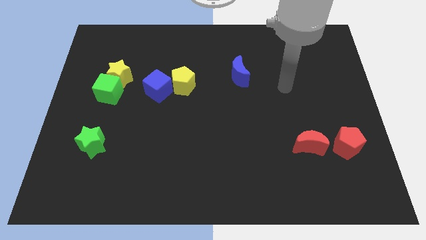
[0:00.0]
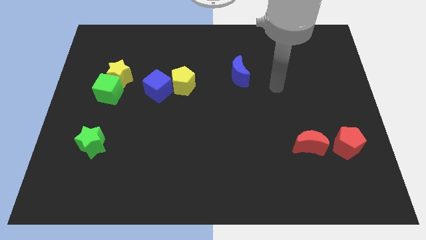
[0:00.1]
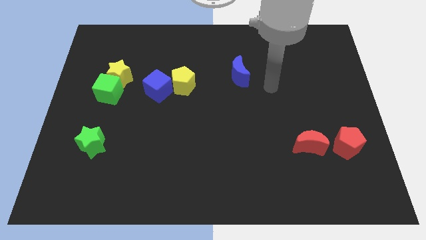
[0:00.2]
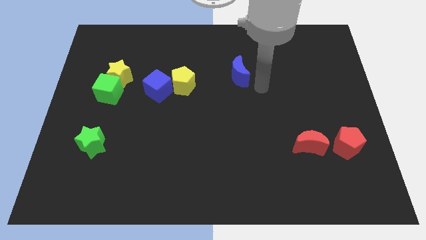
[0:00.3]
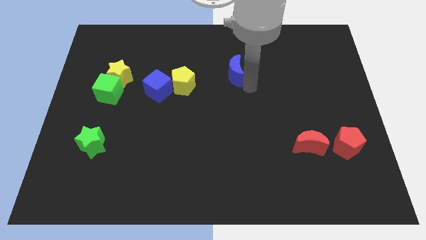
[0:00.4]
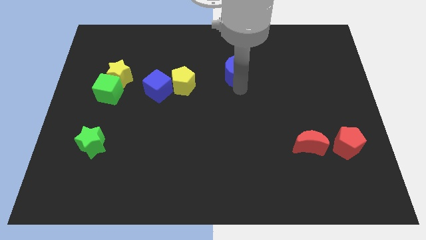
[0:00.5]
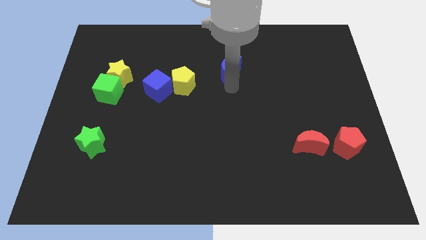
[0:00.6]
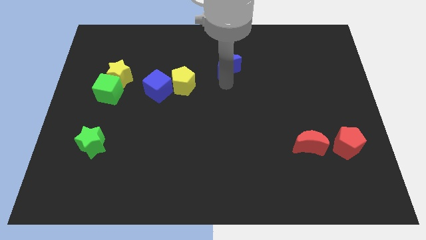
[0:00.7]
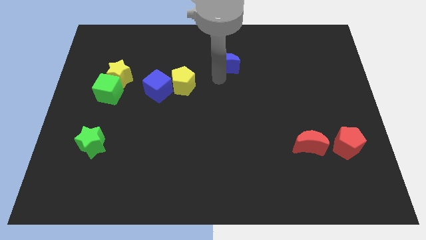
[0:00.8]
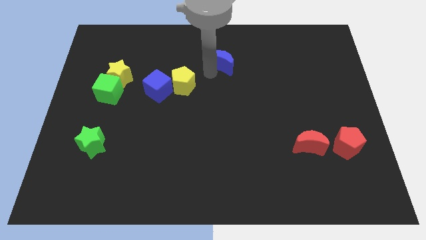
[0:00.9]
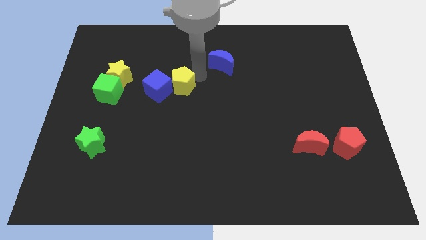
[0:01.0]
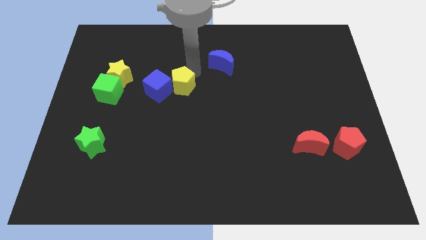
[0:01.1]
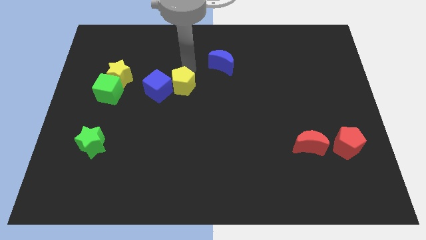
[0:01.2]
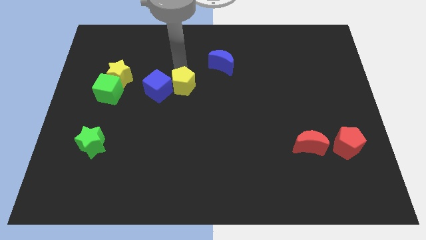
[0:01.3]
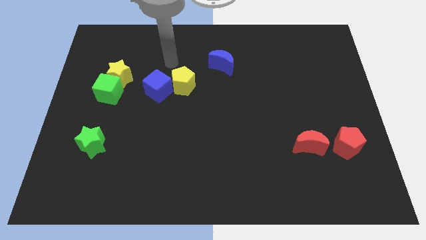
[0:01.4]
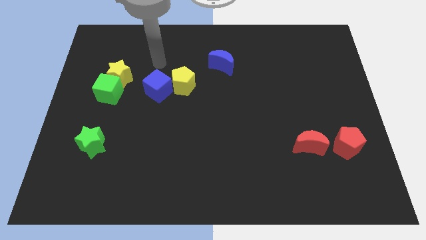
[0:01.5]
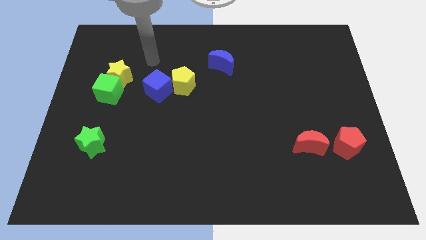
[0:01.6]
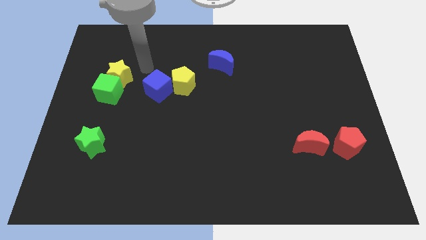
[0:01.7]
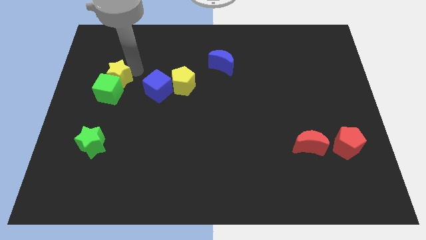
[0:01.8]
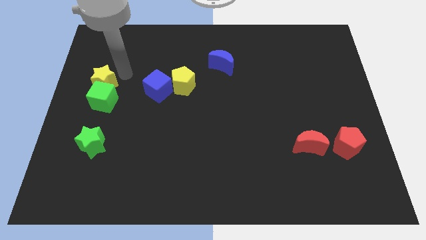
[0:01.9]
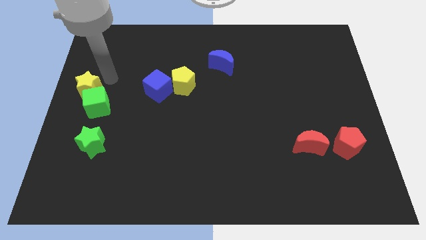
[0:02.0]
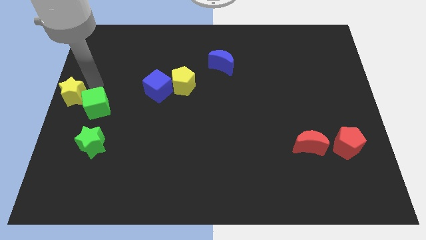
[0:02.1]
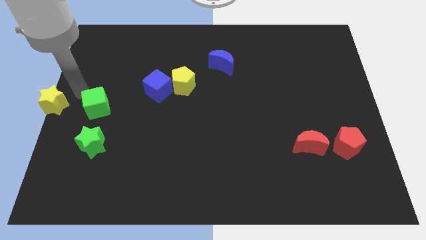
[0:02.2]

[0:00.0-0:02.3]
move the green cube away from the yellow star

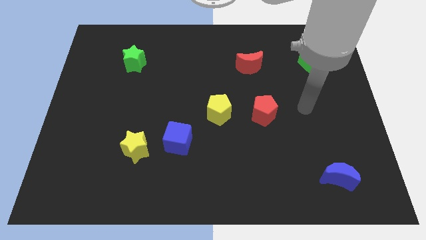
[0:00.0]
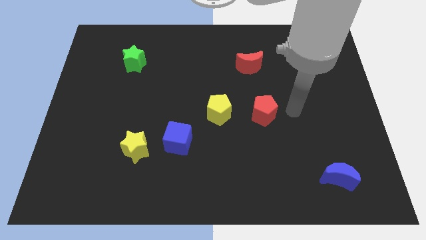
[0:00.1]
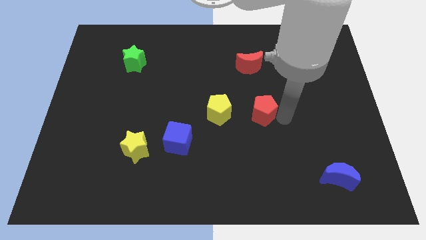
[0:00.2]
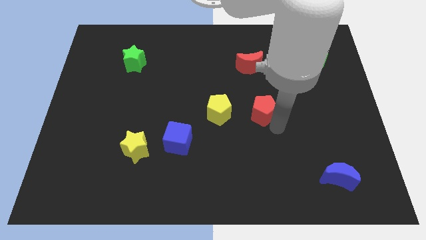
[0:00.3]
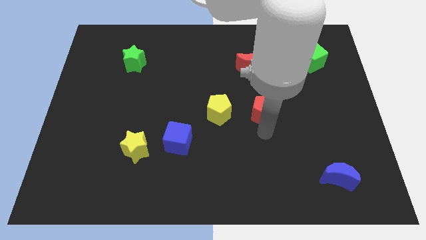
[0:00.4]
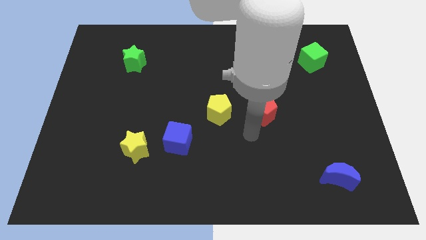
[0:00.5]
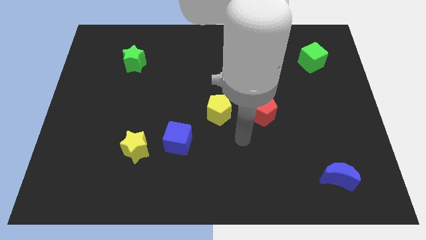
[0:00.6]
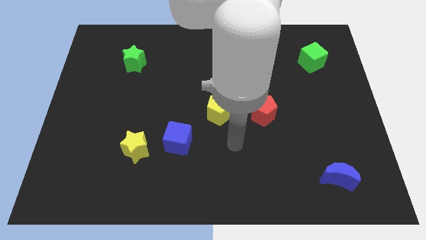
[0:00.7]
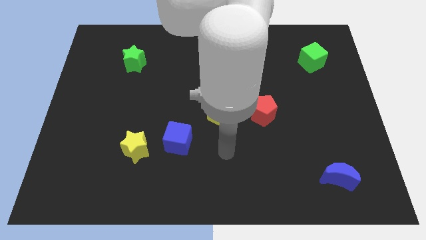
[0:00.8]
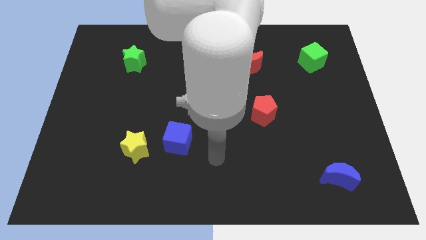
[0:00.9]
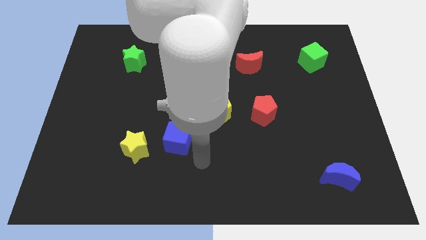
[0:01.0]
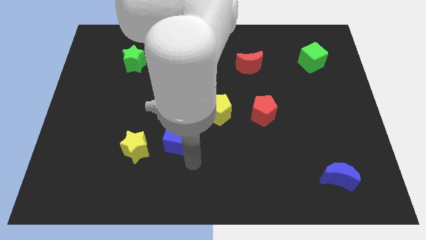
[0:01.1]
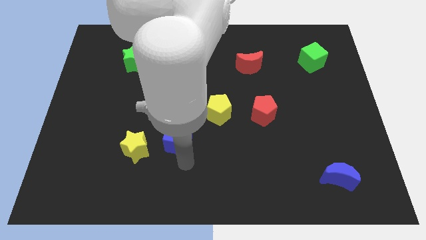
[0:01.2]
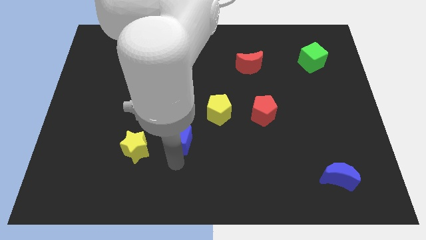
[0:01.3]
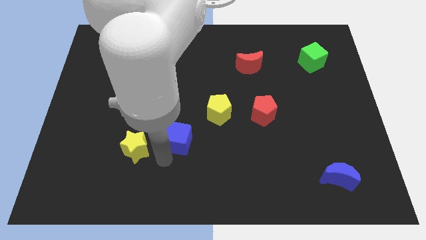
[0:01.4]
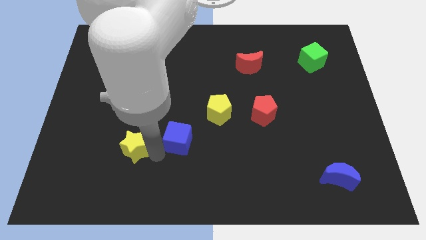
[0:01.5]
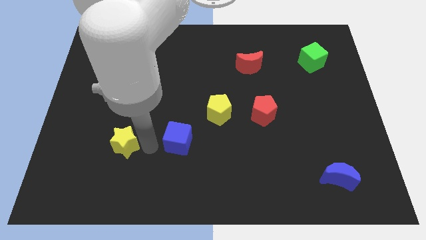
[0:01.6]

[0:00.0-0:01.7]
separate the blue cube from the yellow star

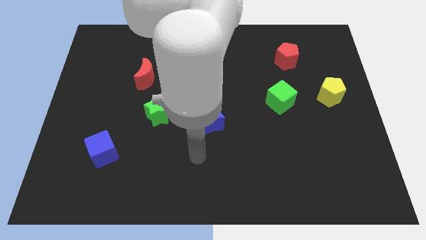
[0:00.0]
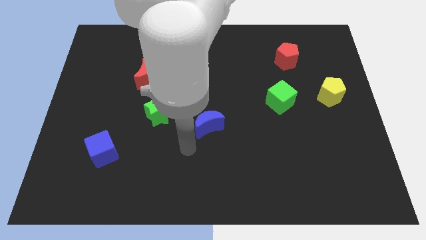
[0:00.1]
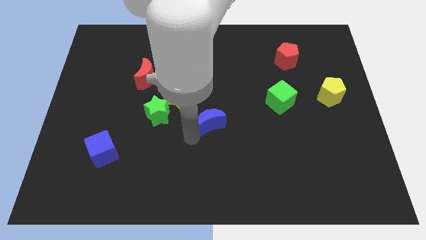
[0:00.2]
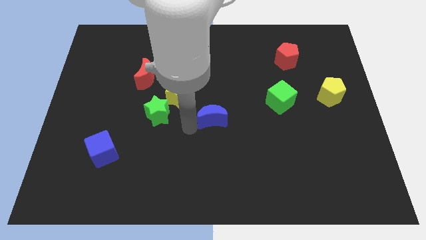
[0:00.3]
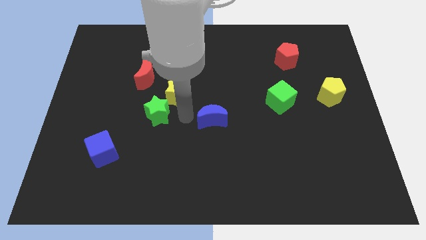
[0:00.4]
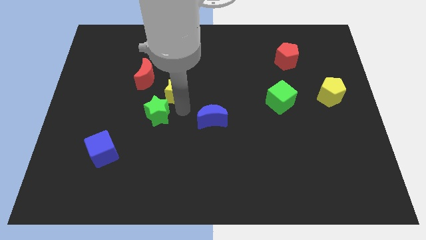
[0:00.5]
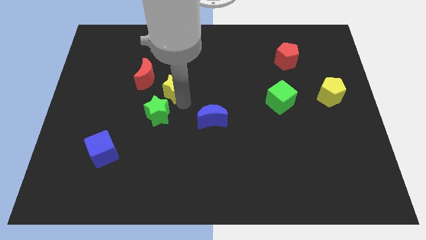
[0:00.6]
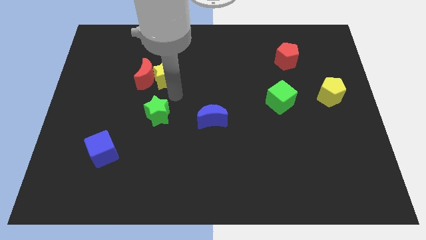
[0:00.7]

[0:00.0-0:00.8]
move the green star away from the yellow star

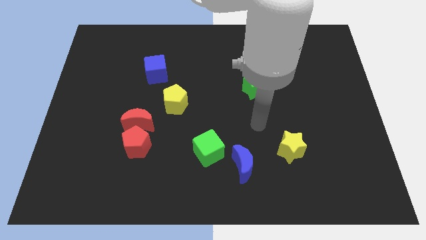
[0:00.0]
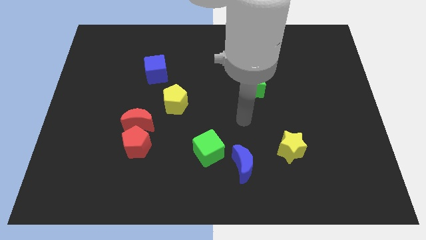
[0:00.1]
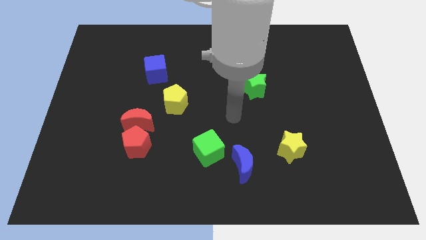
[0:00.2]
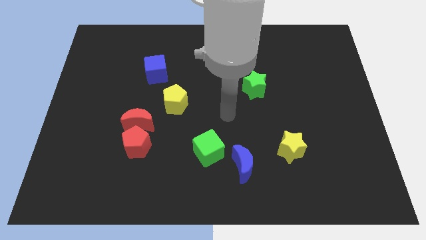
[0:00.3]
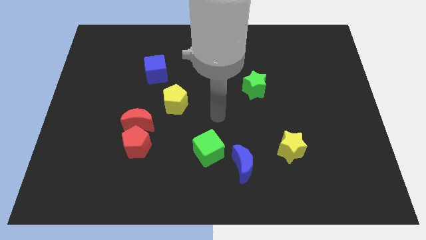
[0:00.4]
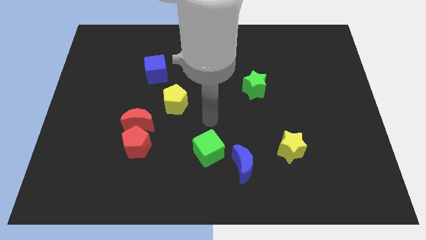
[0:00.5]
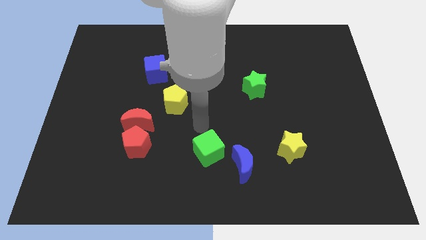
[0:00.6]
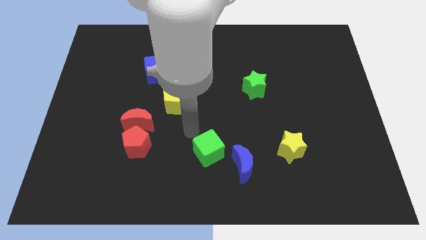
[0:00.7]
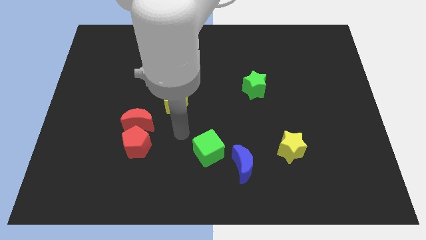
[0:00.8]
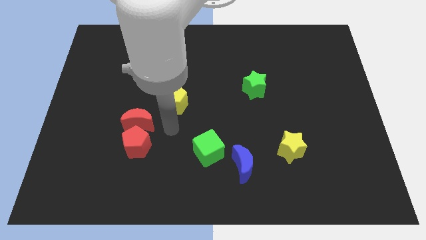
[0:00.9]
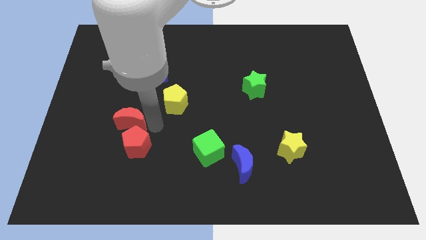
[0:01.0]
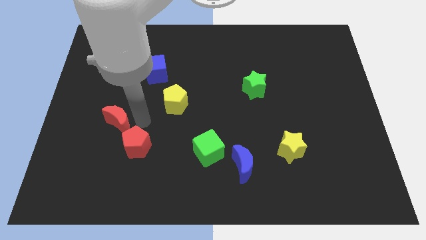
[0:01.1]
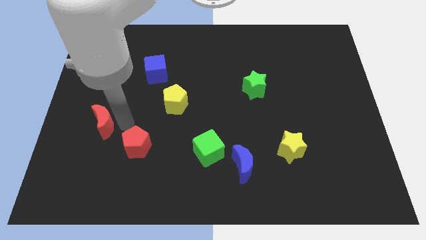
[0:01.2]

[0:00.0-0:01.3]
separate the red pentagon from the red moon

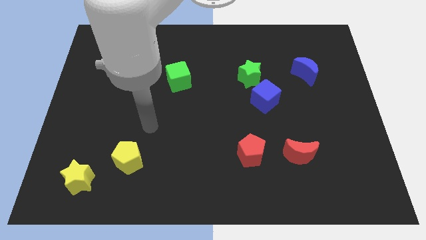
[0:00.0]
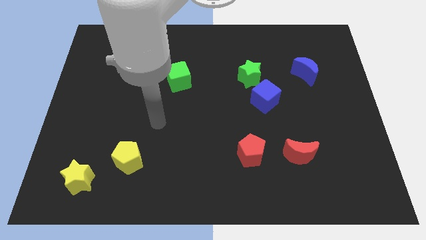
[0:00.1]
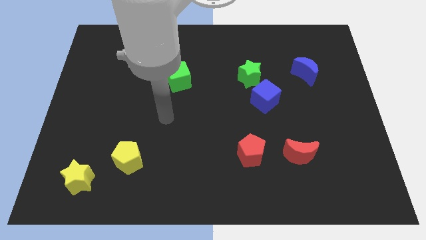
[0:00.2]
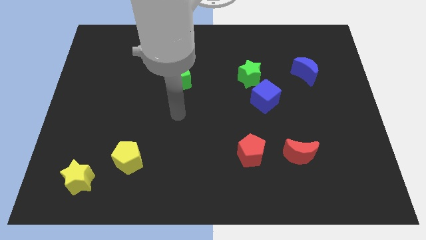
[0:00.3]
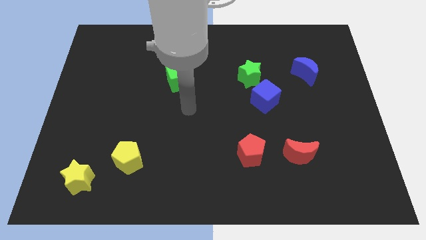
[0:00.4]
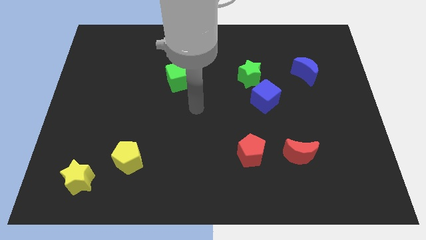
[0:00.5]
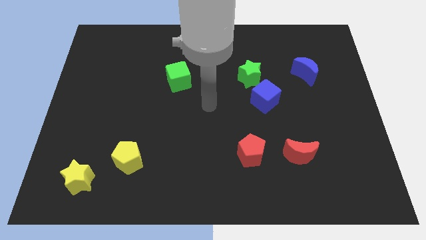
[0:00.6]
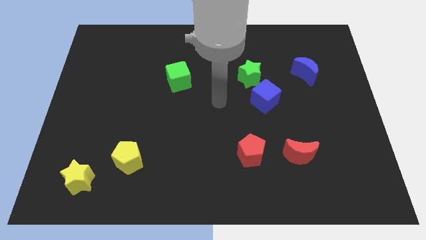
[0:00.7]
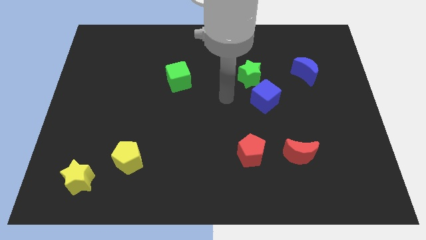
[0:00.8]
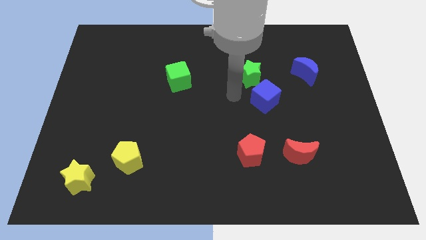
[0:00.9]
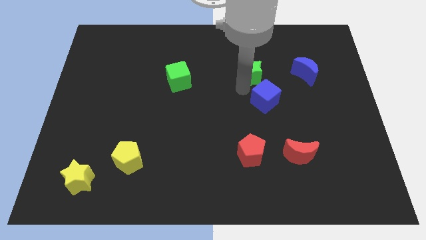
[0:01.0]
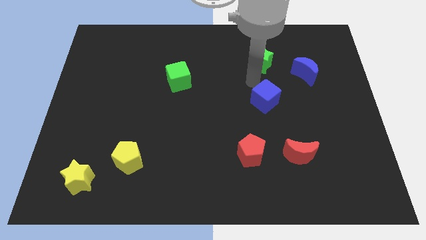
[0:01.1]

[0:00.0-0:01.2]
move the blue cube away from the green star

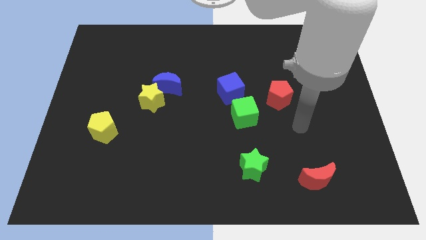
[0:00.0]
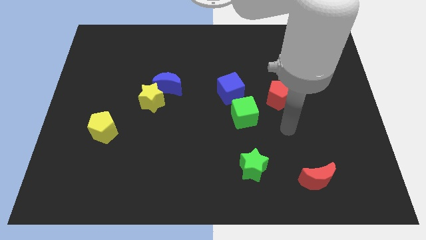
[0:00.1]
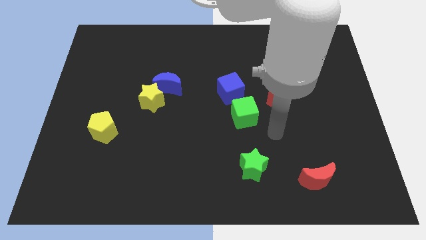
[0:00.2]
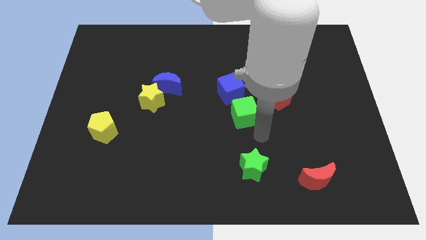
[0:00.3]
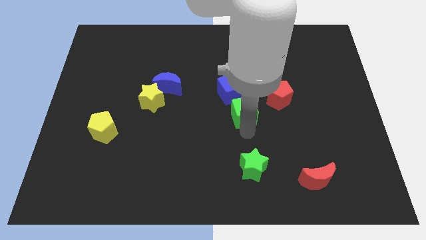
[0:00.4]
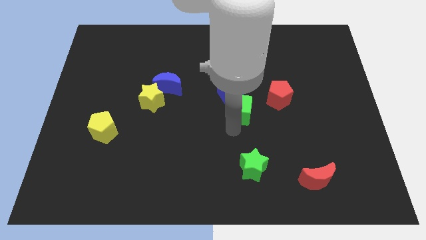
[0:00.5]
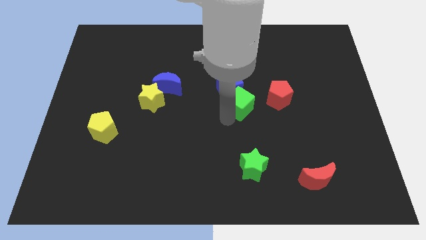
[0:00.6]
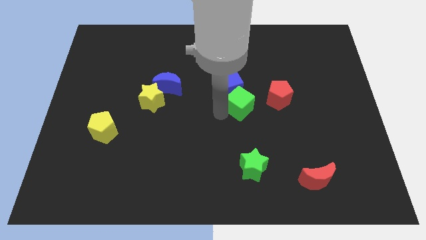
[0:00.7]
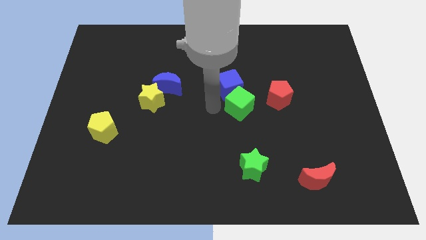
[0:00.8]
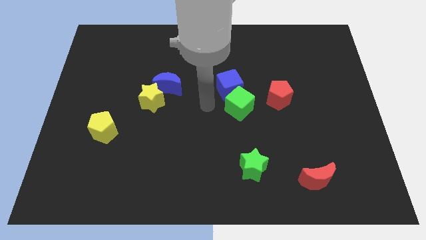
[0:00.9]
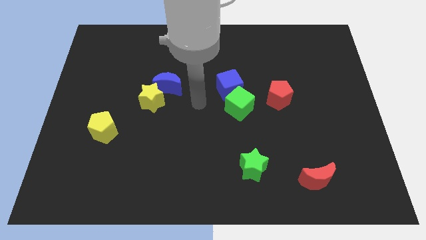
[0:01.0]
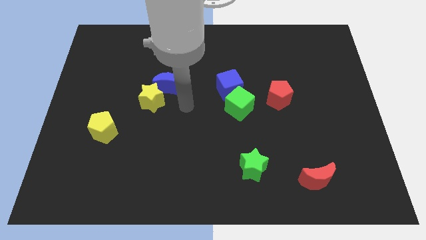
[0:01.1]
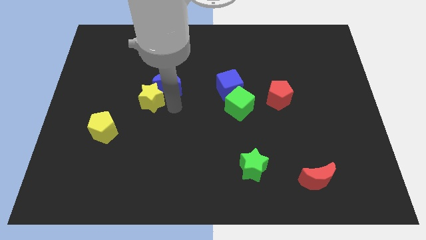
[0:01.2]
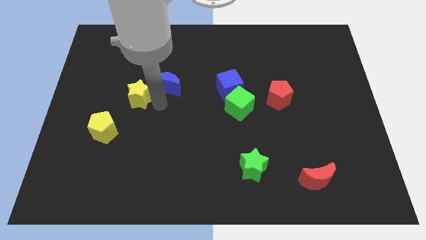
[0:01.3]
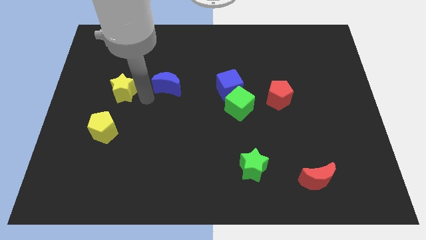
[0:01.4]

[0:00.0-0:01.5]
separate the blue moon from the yellow star

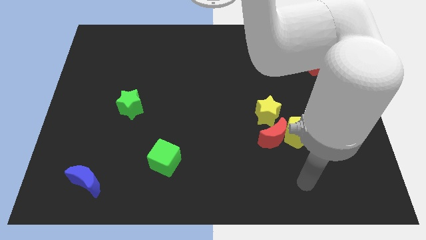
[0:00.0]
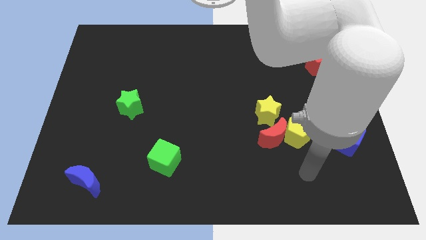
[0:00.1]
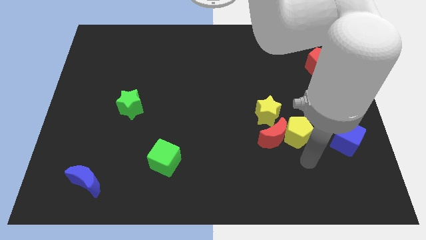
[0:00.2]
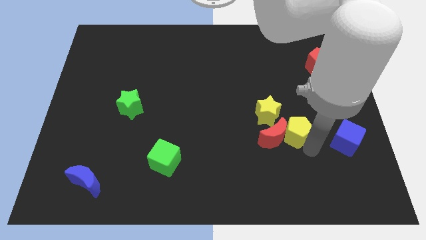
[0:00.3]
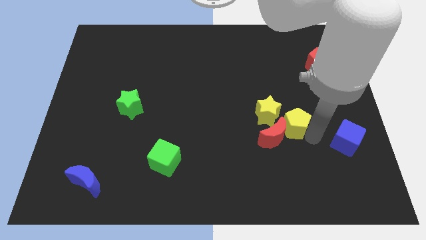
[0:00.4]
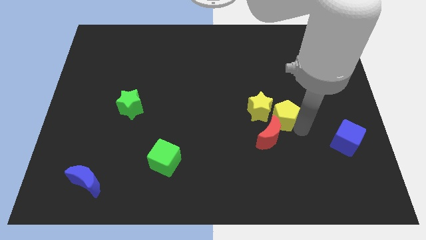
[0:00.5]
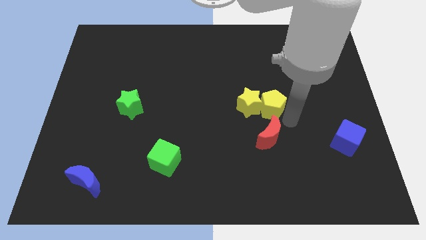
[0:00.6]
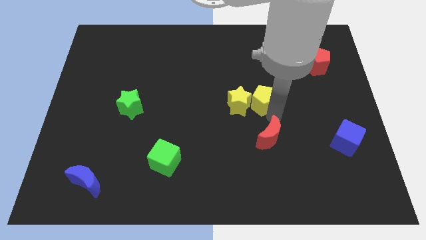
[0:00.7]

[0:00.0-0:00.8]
pull the red moon apart from the yellow pentagon and yellow star
